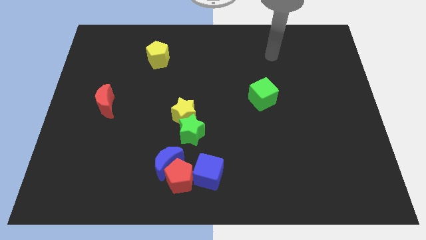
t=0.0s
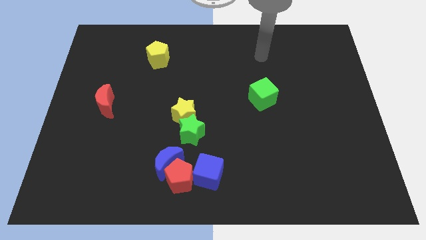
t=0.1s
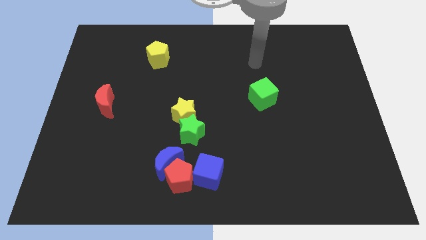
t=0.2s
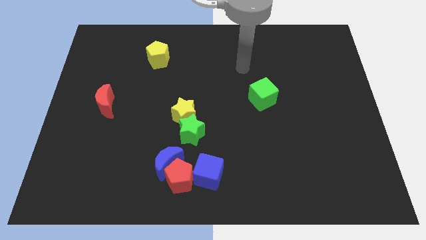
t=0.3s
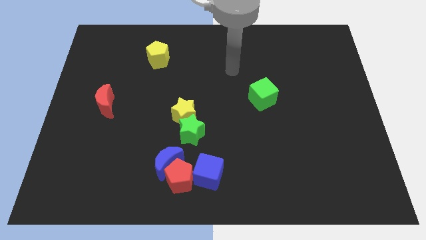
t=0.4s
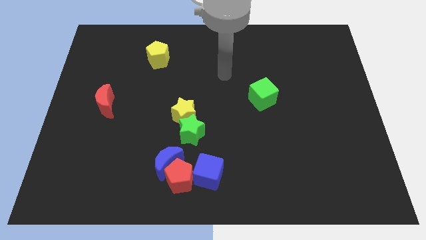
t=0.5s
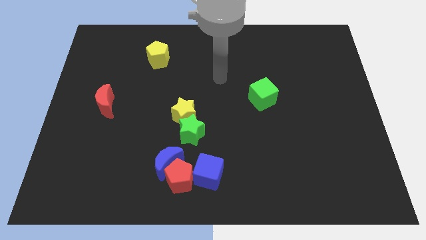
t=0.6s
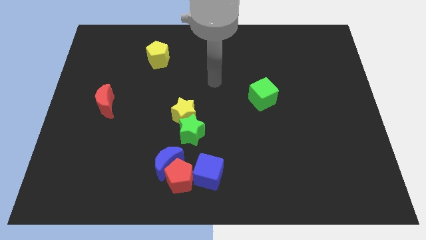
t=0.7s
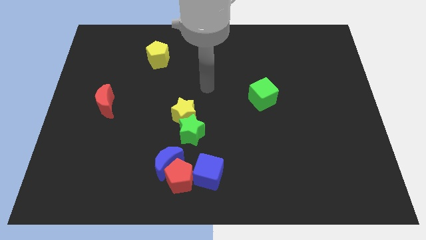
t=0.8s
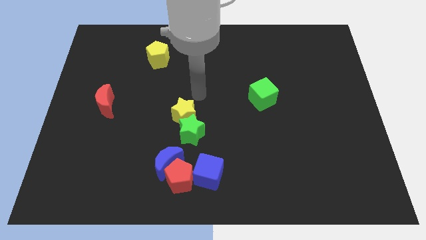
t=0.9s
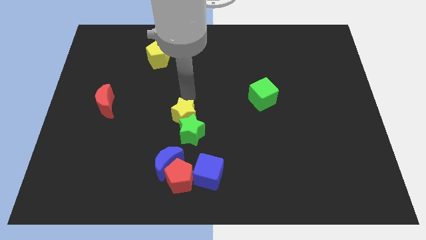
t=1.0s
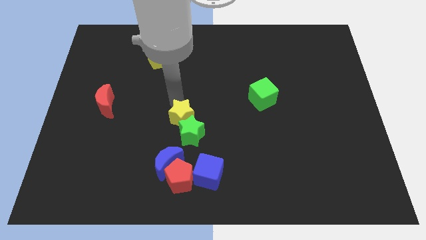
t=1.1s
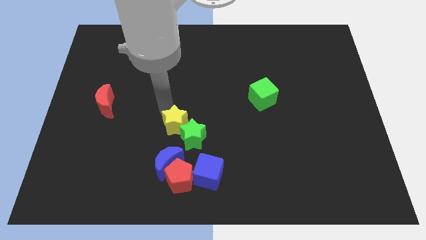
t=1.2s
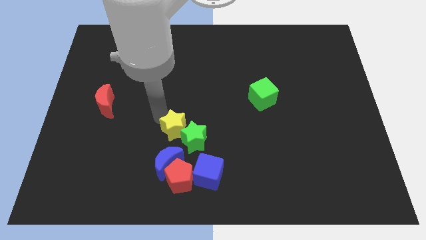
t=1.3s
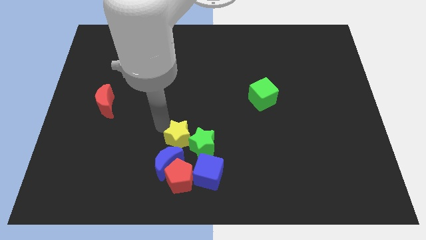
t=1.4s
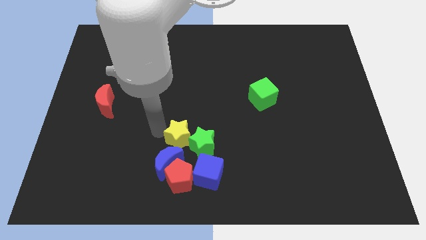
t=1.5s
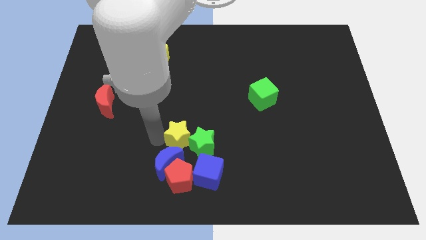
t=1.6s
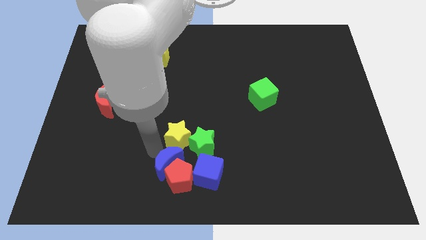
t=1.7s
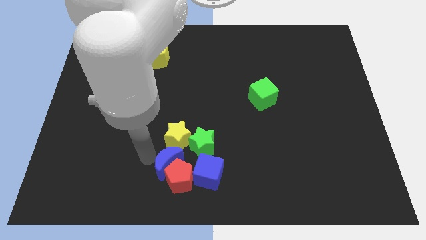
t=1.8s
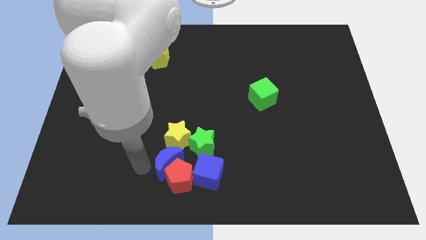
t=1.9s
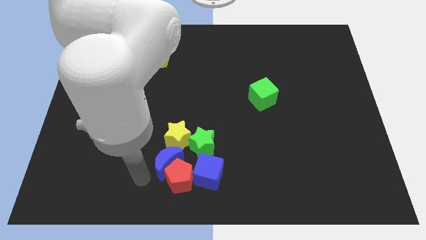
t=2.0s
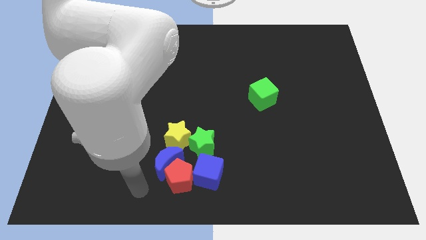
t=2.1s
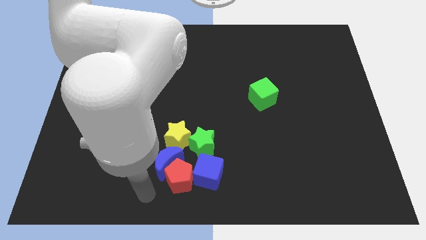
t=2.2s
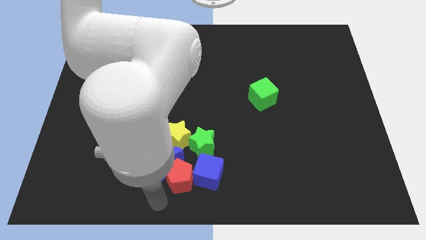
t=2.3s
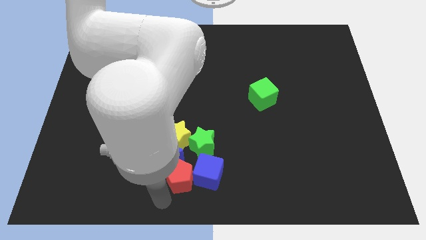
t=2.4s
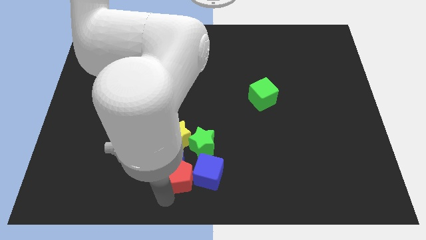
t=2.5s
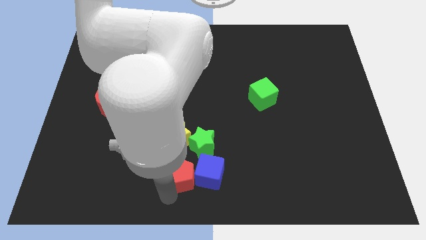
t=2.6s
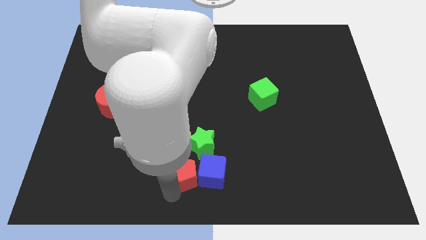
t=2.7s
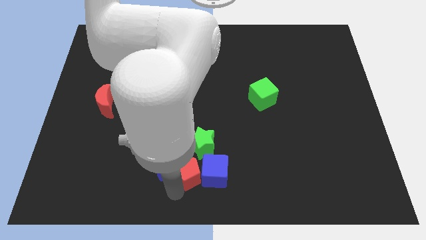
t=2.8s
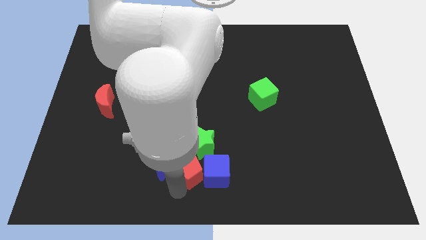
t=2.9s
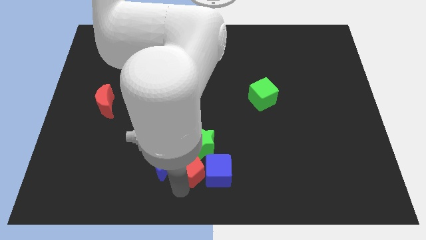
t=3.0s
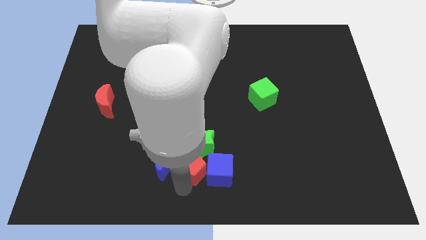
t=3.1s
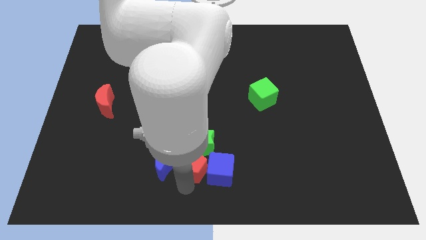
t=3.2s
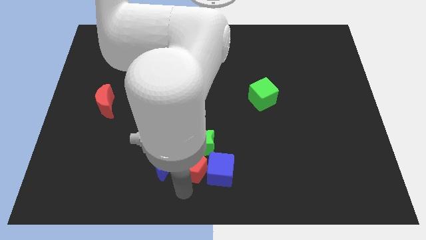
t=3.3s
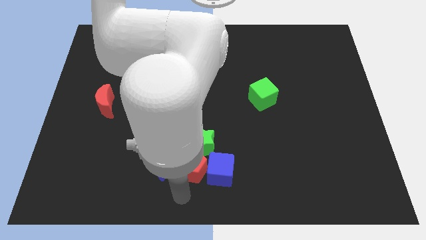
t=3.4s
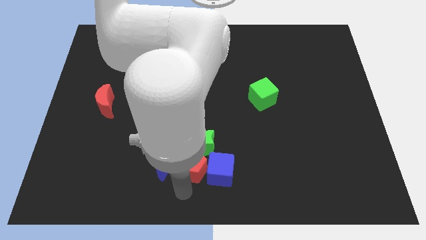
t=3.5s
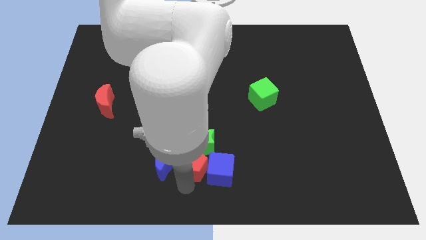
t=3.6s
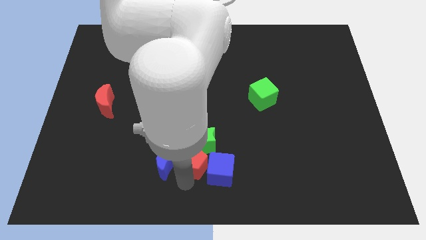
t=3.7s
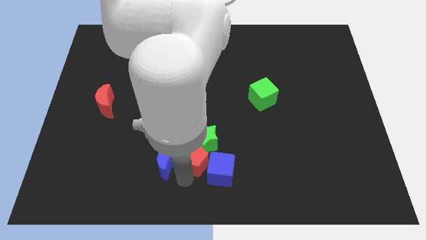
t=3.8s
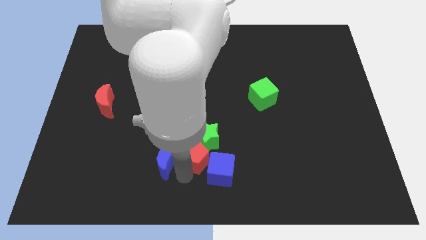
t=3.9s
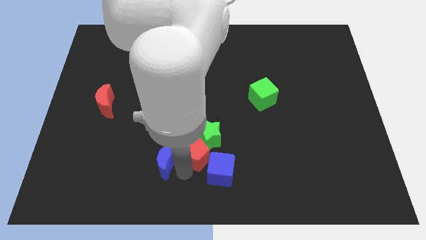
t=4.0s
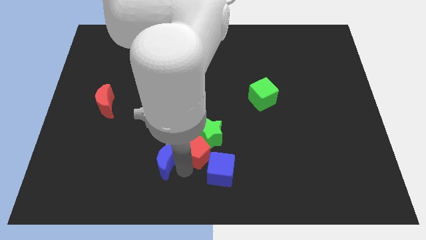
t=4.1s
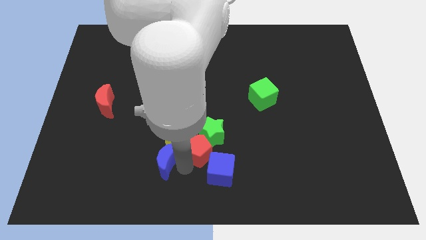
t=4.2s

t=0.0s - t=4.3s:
move the red pentagon upwards and then to the right a little

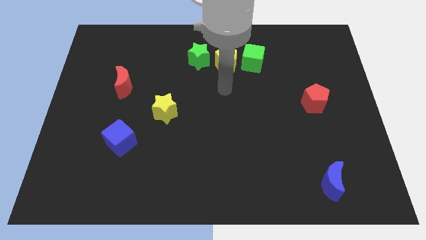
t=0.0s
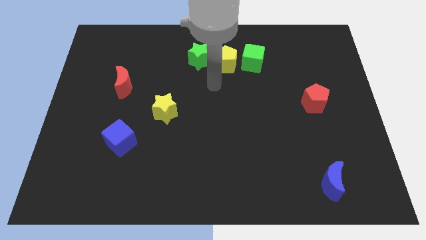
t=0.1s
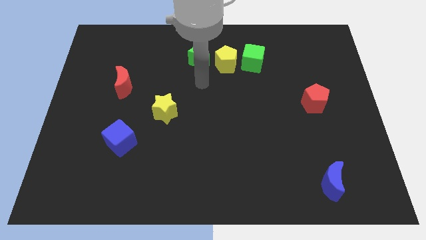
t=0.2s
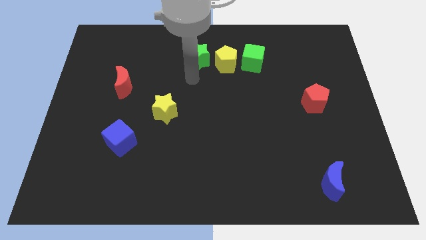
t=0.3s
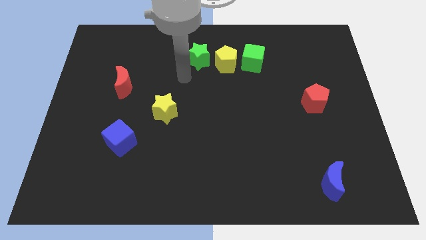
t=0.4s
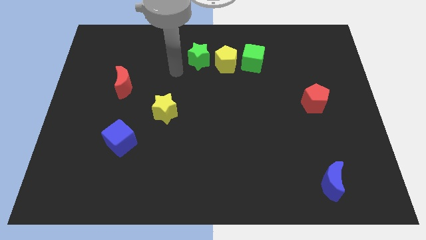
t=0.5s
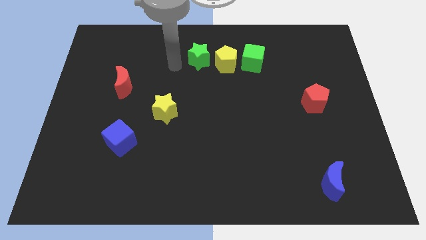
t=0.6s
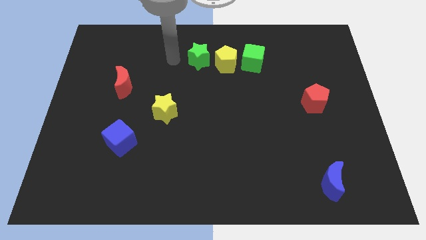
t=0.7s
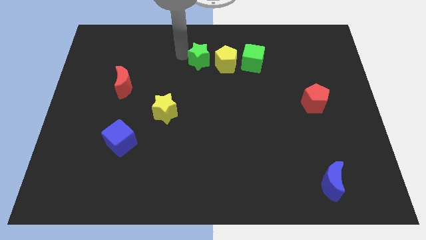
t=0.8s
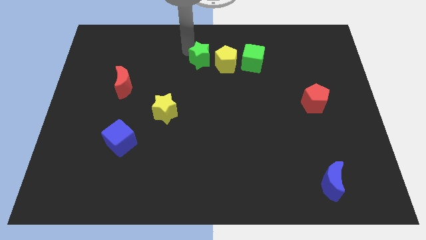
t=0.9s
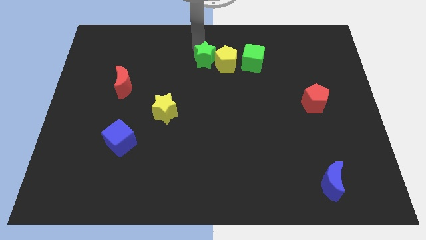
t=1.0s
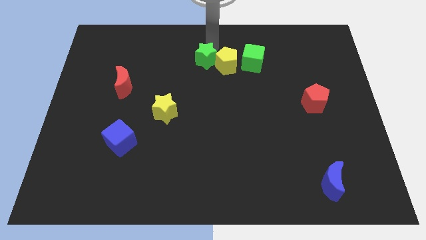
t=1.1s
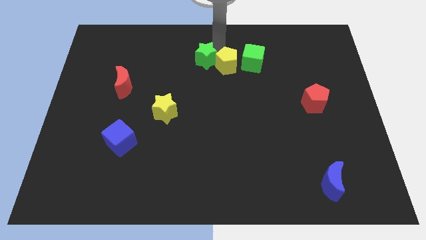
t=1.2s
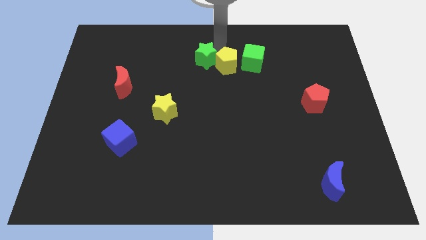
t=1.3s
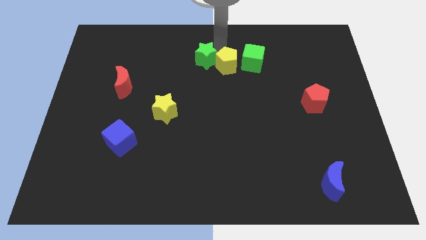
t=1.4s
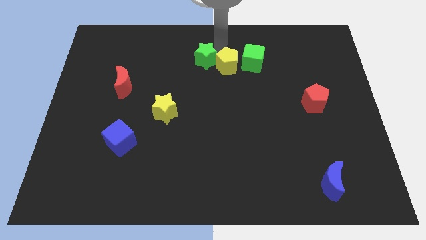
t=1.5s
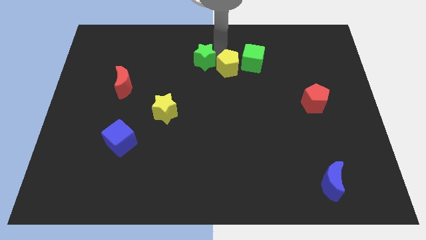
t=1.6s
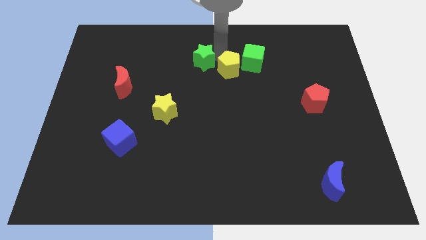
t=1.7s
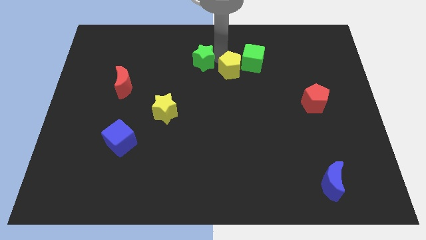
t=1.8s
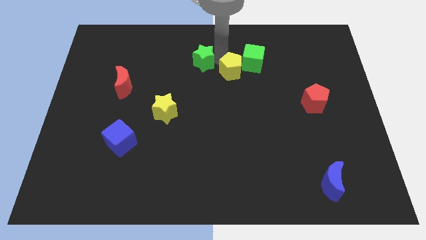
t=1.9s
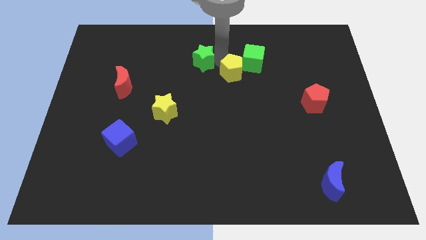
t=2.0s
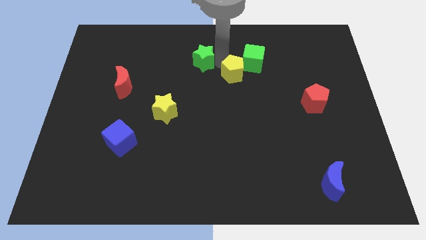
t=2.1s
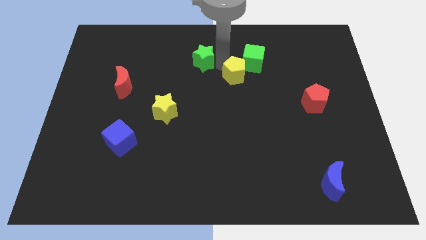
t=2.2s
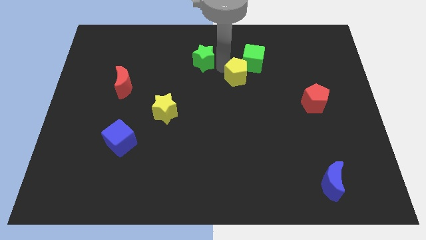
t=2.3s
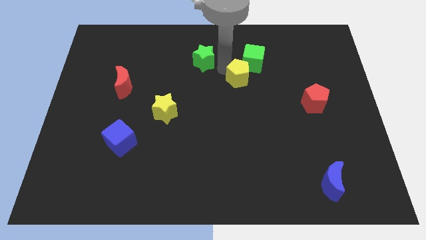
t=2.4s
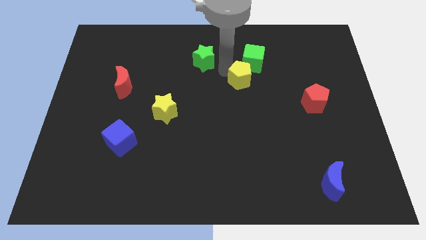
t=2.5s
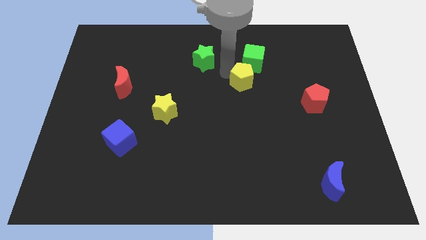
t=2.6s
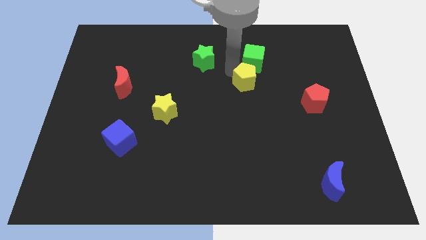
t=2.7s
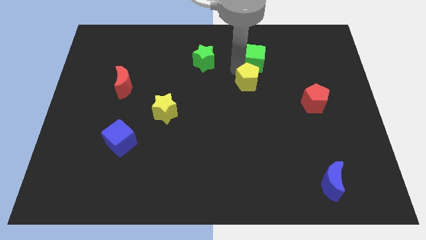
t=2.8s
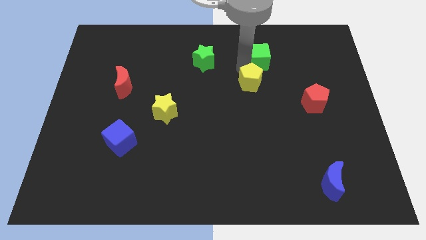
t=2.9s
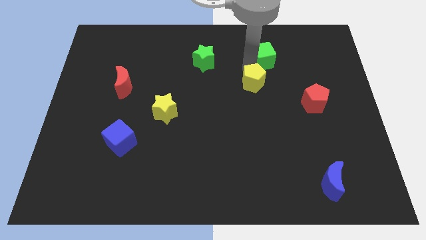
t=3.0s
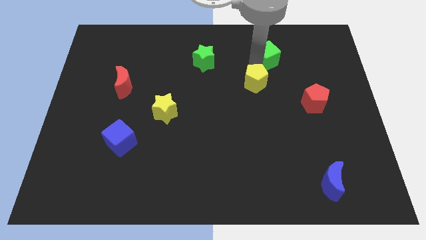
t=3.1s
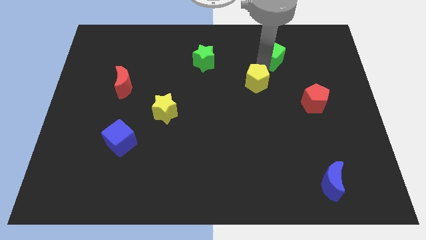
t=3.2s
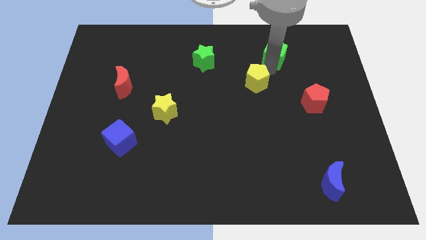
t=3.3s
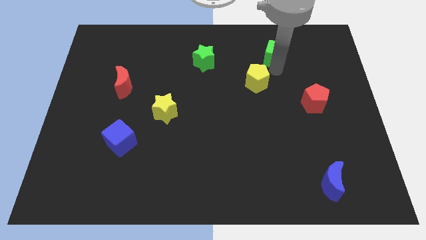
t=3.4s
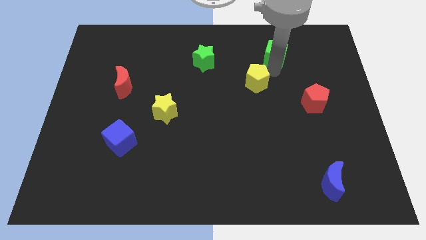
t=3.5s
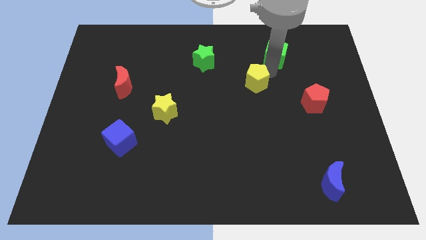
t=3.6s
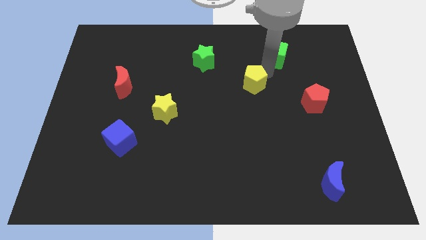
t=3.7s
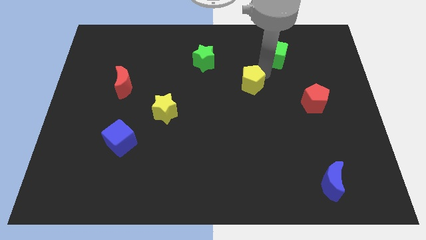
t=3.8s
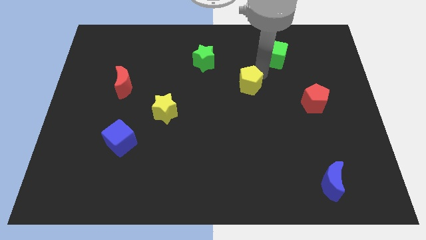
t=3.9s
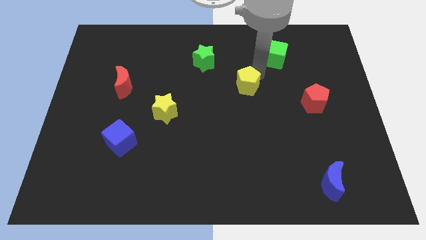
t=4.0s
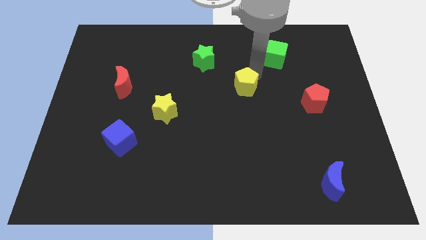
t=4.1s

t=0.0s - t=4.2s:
slide the yellow pentagon down slightly
